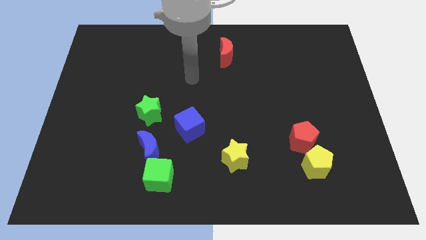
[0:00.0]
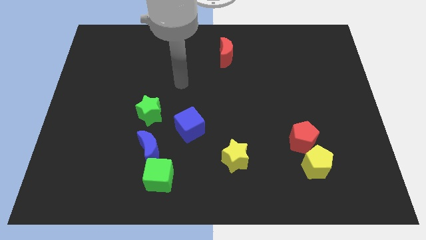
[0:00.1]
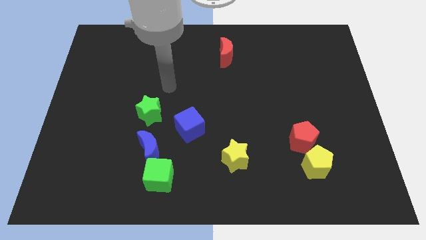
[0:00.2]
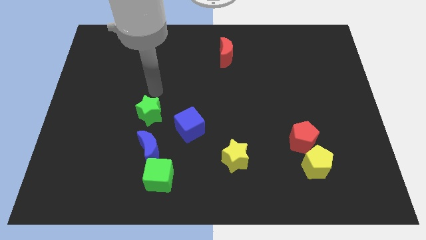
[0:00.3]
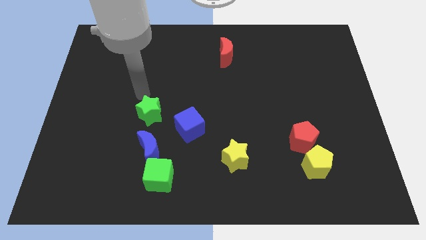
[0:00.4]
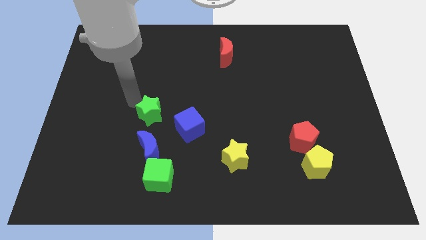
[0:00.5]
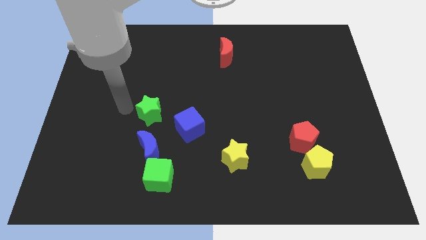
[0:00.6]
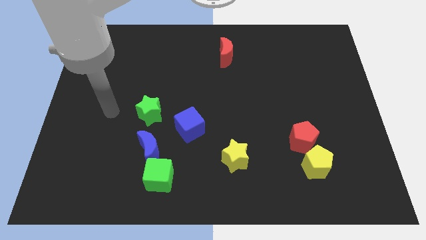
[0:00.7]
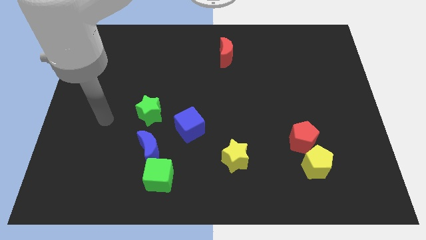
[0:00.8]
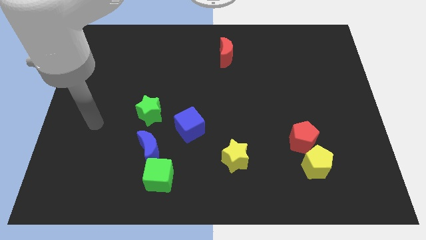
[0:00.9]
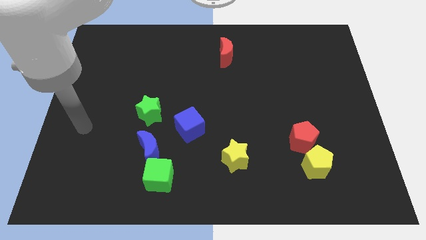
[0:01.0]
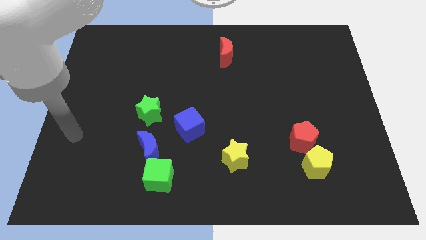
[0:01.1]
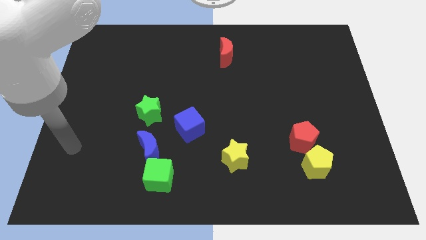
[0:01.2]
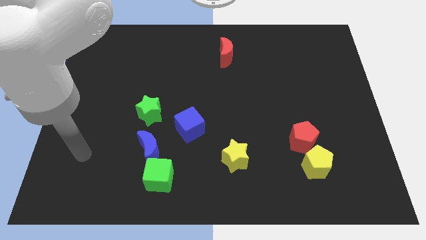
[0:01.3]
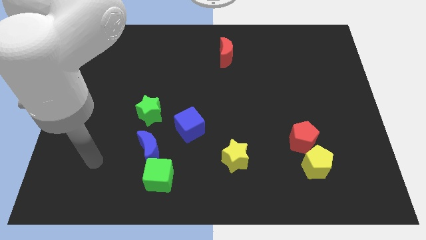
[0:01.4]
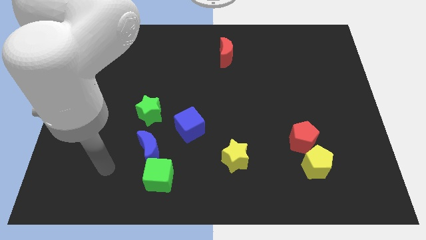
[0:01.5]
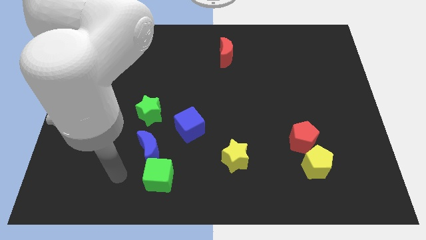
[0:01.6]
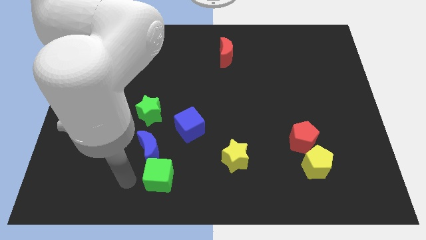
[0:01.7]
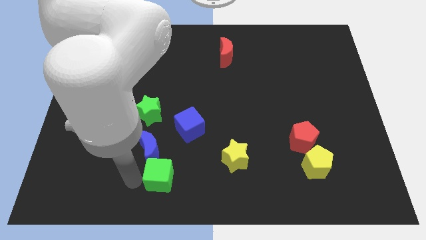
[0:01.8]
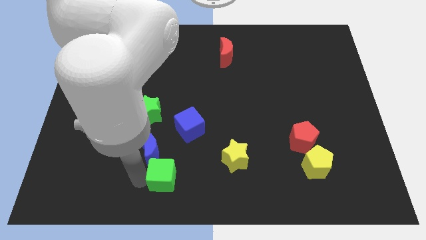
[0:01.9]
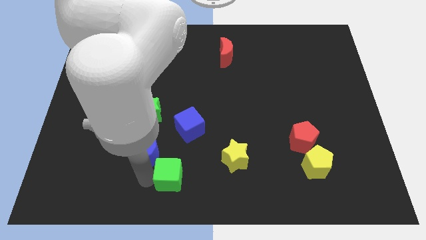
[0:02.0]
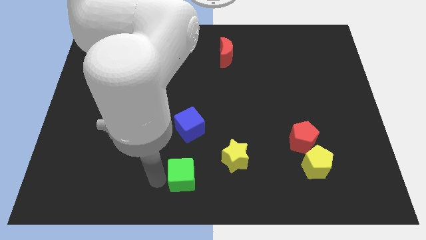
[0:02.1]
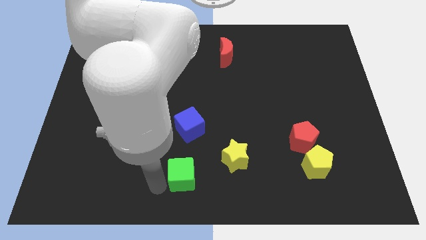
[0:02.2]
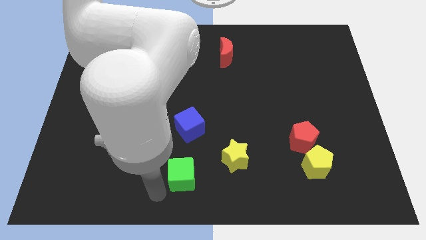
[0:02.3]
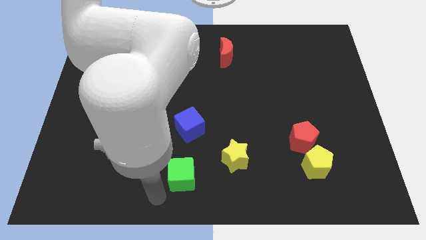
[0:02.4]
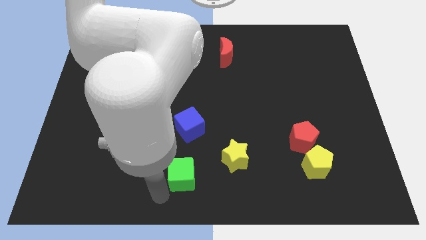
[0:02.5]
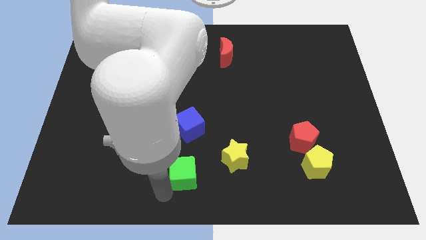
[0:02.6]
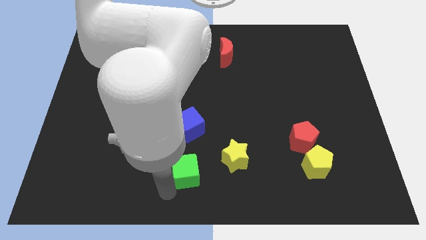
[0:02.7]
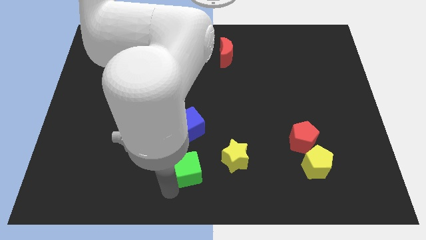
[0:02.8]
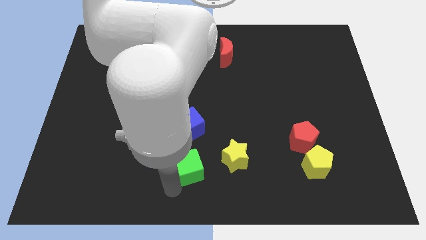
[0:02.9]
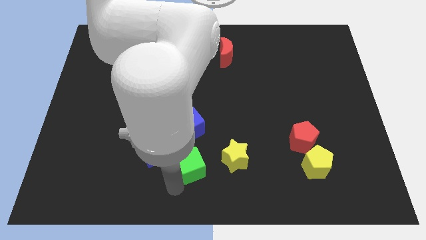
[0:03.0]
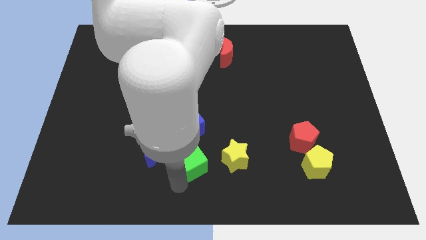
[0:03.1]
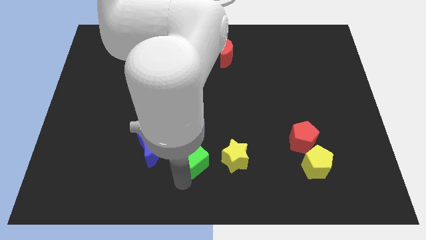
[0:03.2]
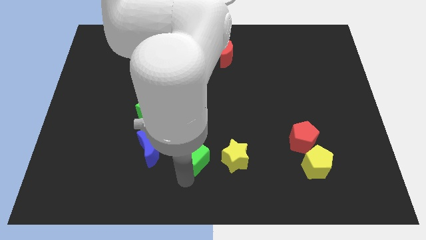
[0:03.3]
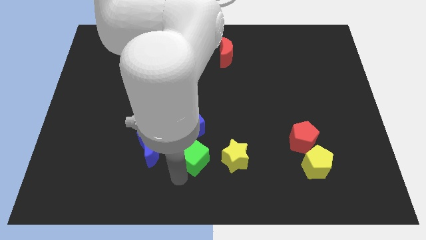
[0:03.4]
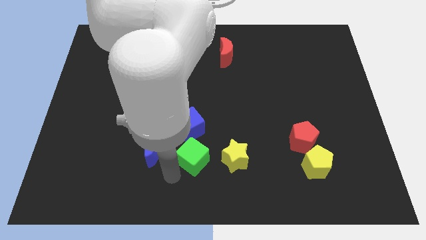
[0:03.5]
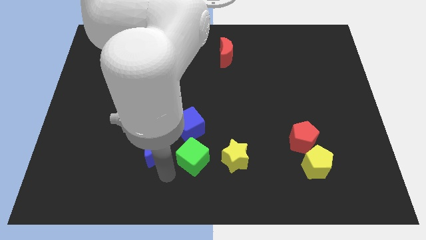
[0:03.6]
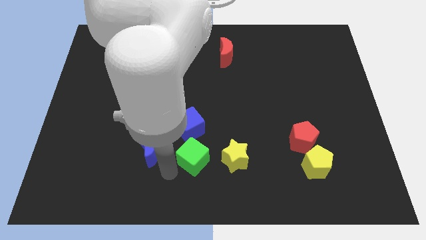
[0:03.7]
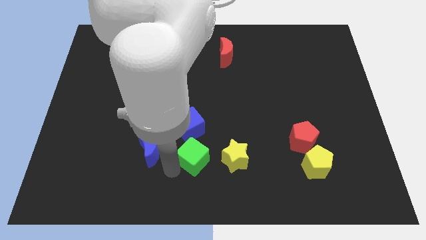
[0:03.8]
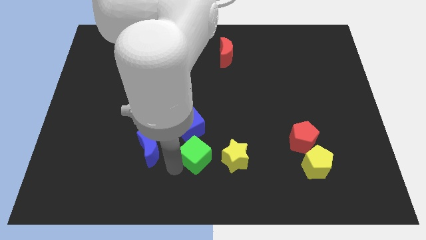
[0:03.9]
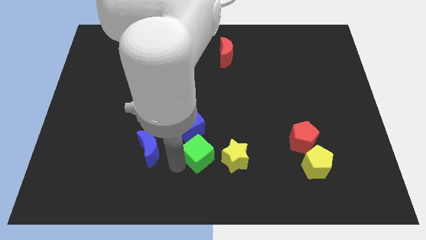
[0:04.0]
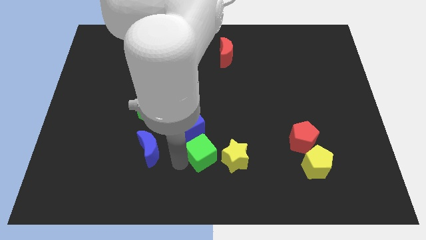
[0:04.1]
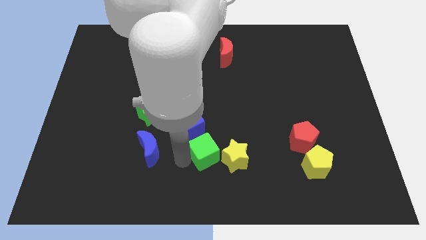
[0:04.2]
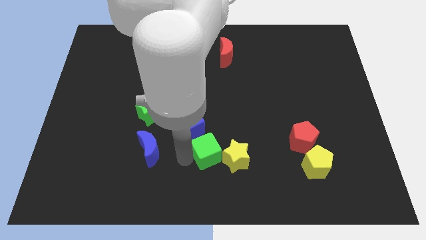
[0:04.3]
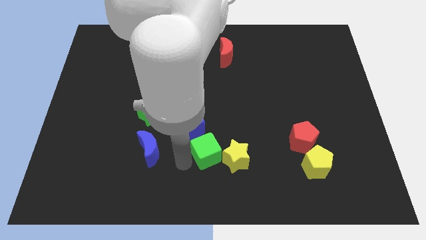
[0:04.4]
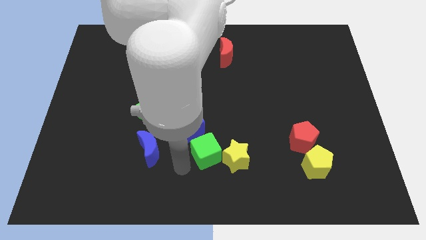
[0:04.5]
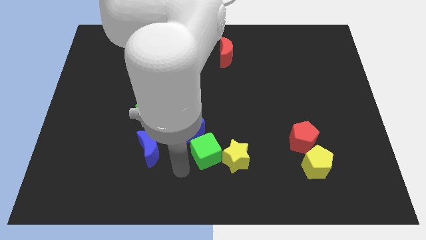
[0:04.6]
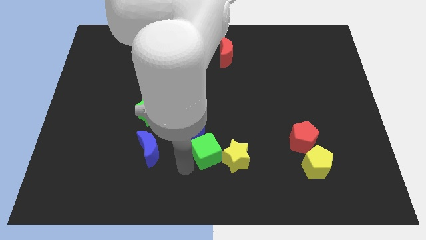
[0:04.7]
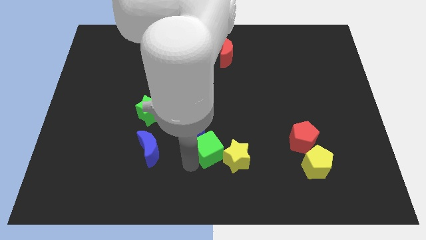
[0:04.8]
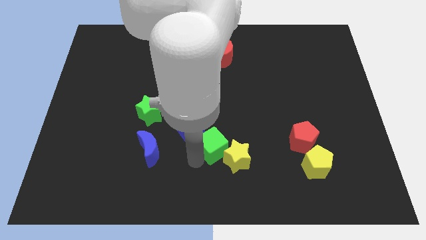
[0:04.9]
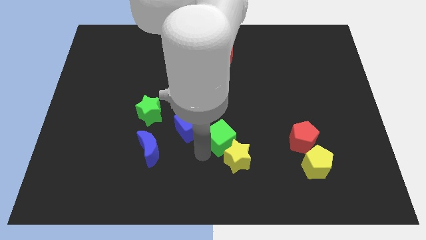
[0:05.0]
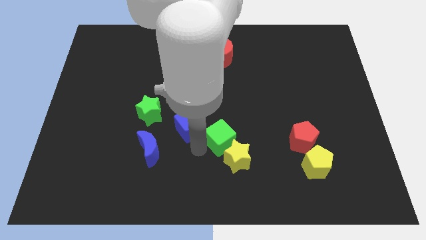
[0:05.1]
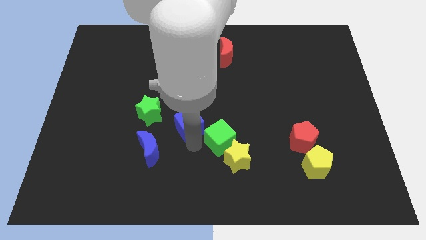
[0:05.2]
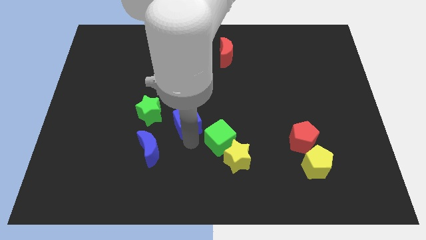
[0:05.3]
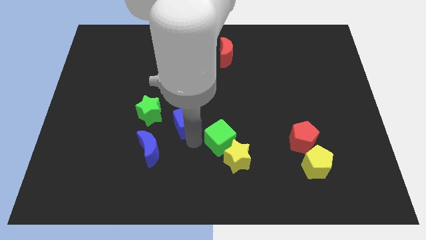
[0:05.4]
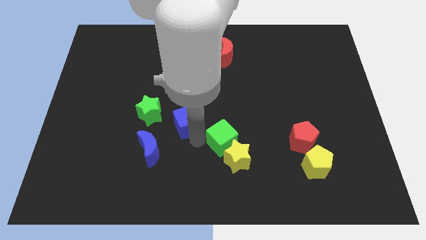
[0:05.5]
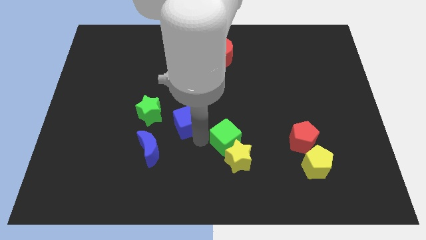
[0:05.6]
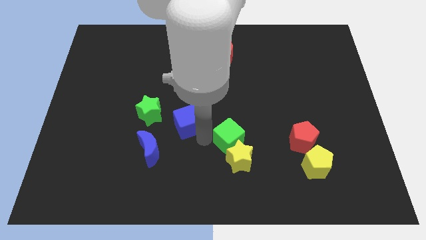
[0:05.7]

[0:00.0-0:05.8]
put the green cube to the left side of the red pentagon
